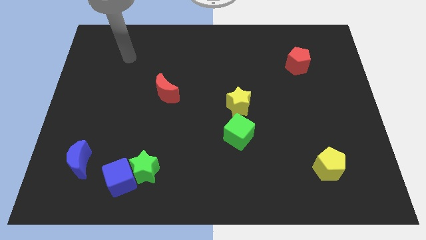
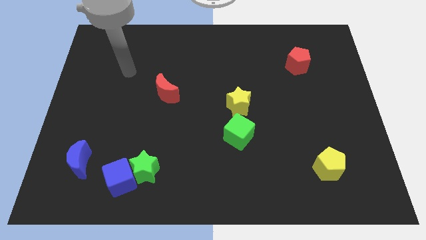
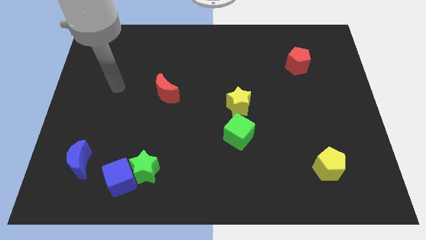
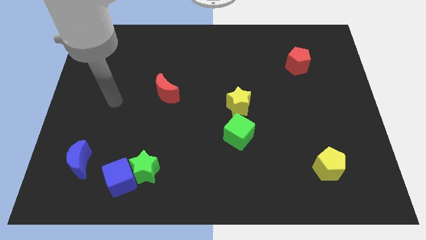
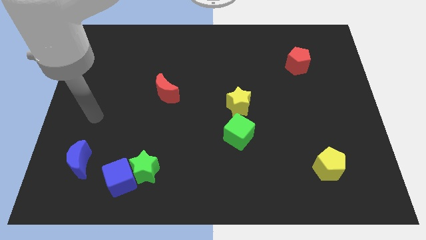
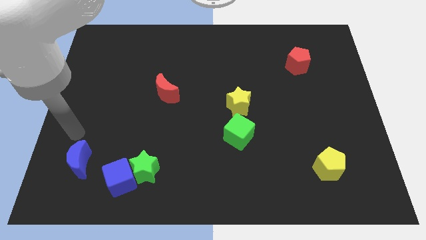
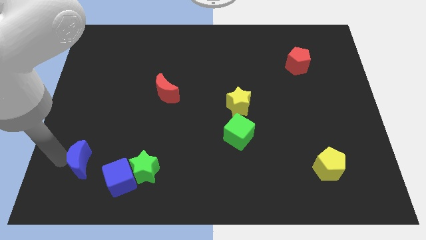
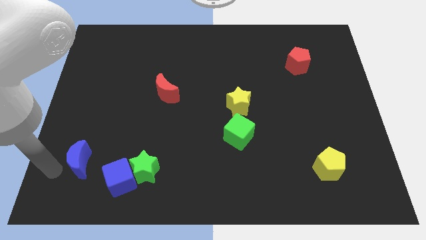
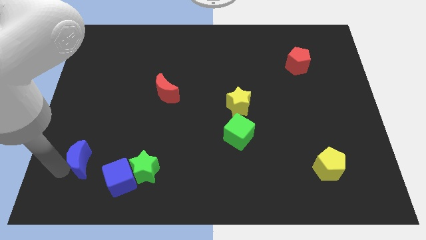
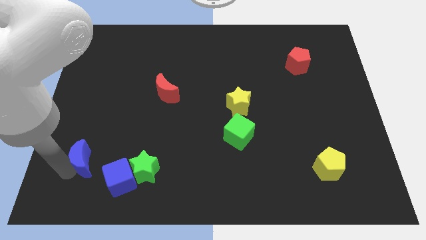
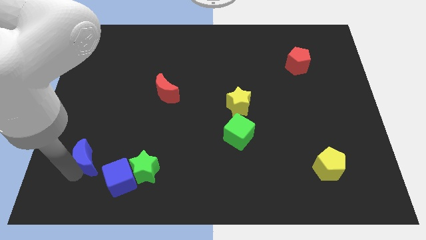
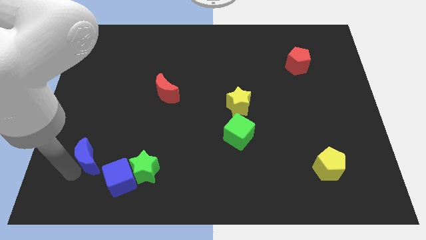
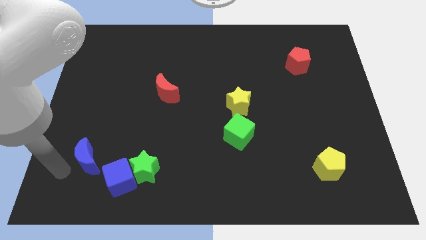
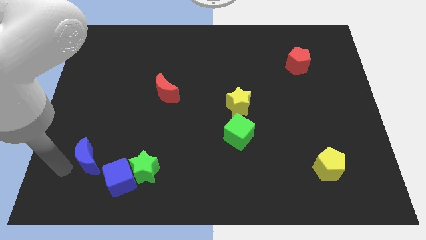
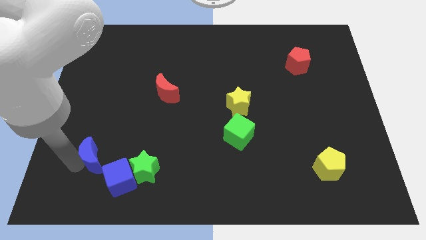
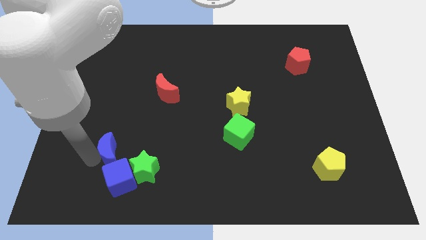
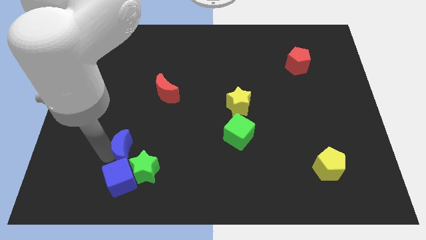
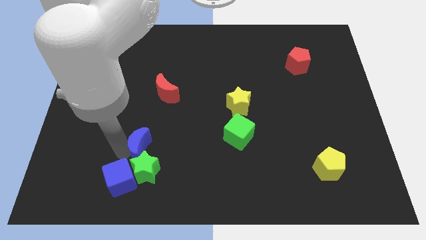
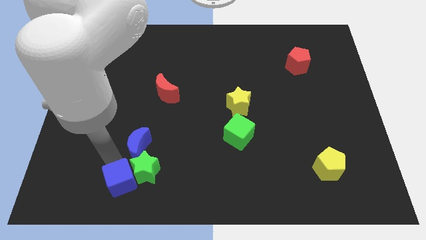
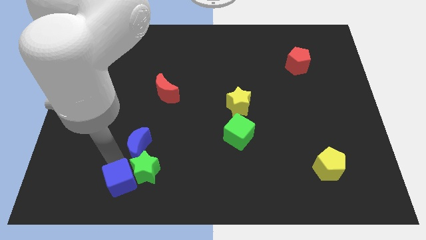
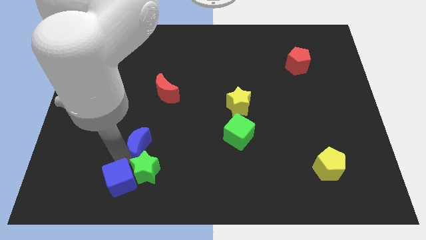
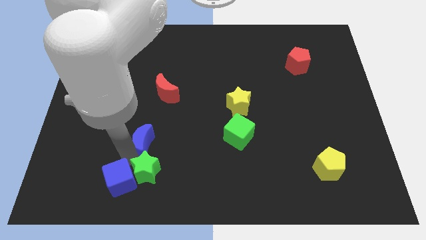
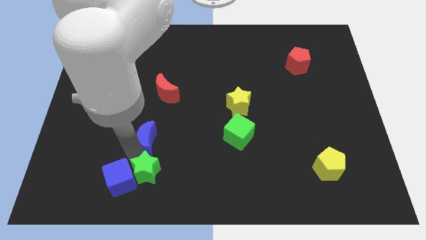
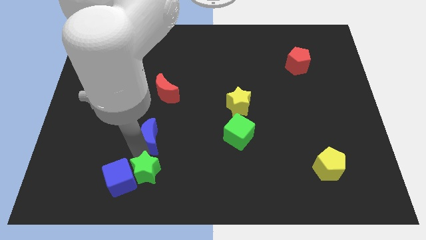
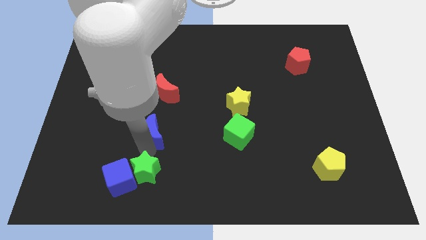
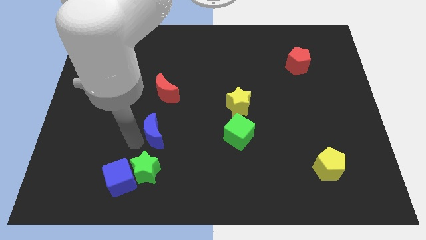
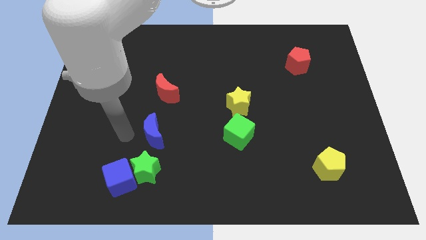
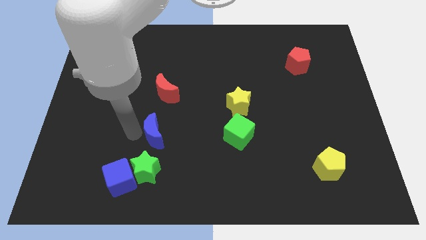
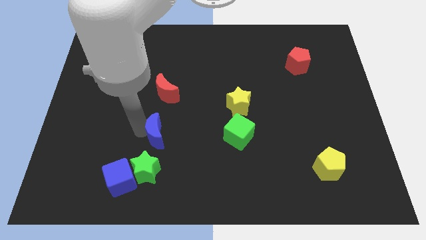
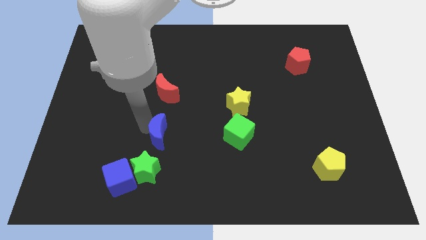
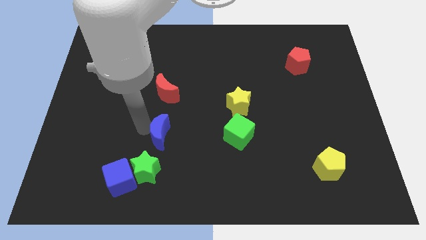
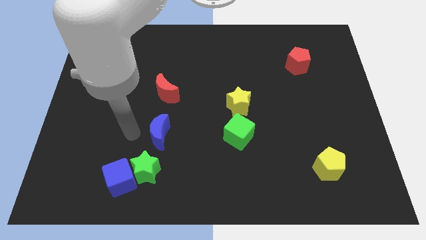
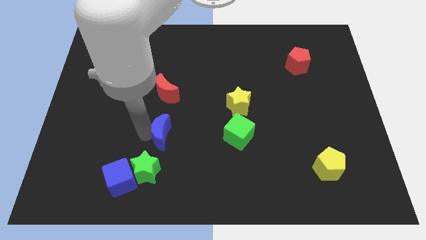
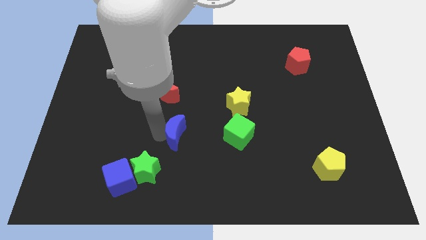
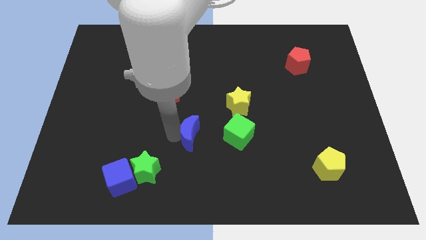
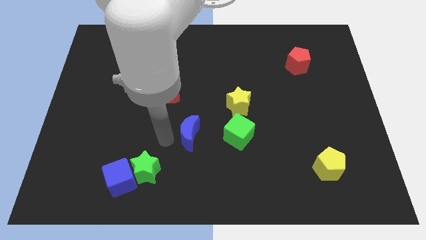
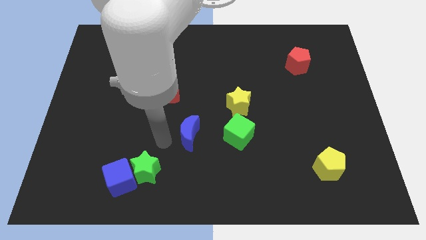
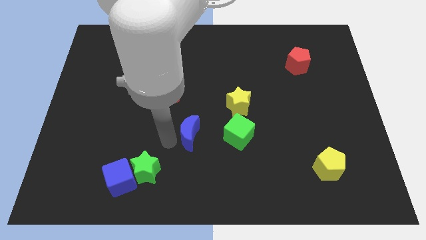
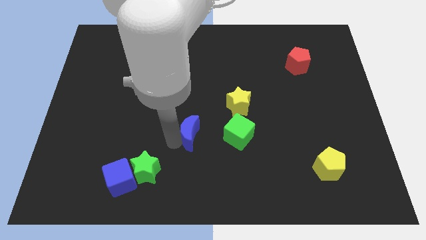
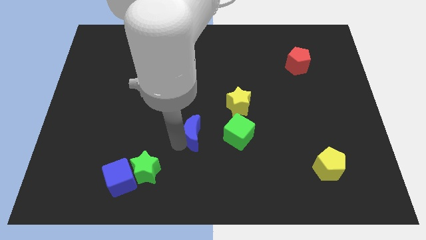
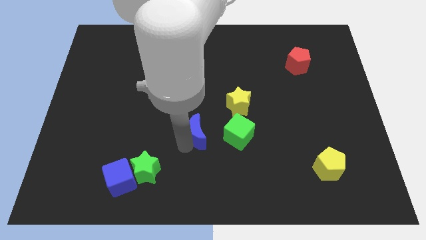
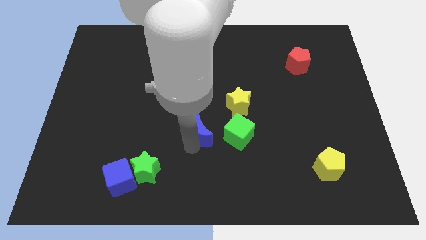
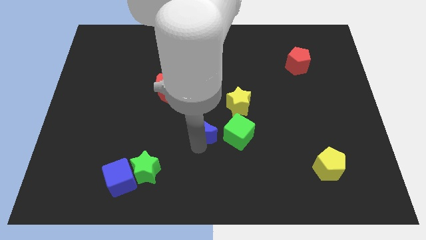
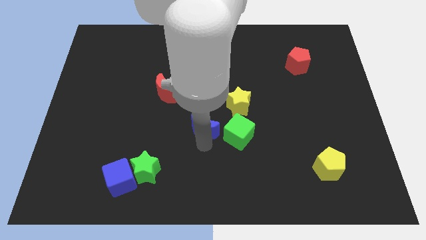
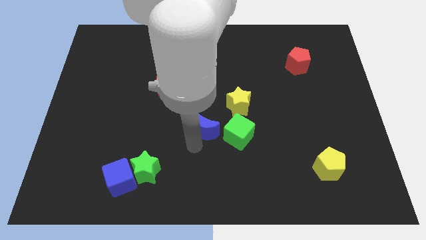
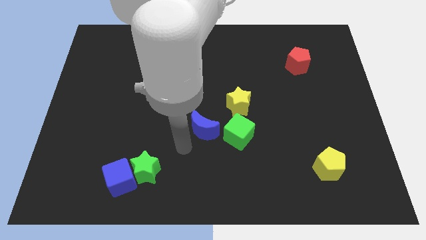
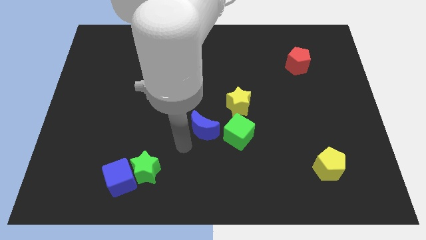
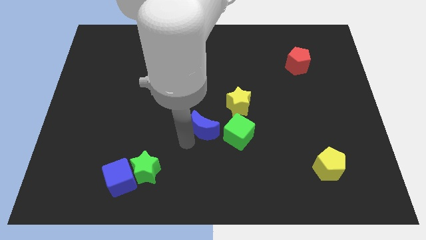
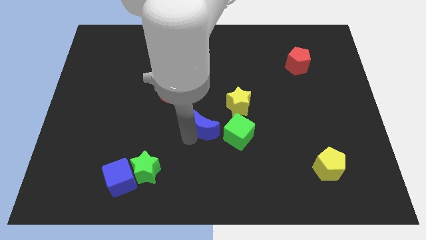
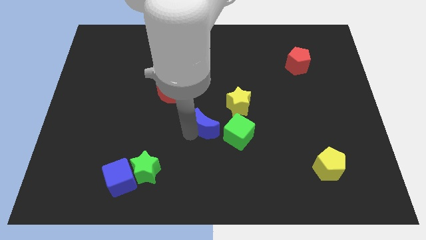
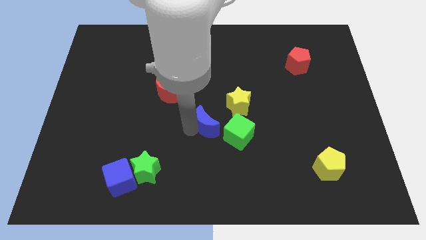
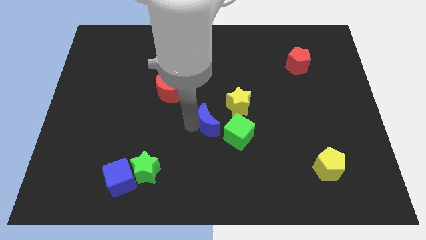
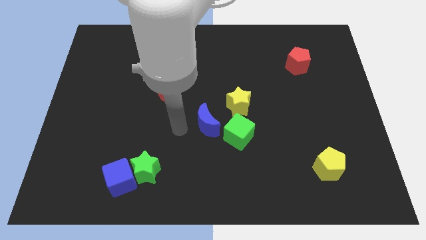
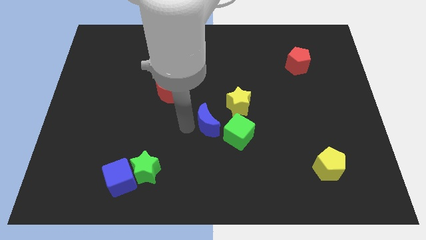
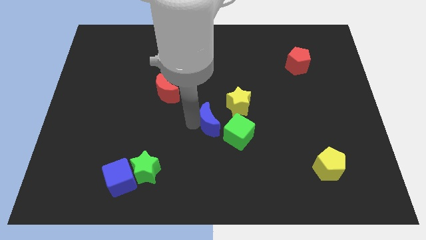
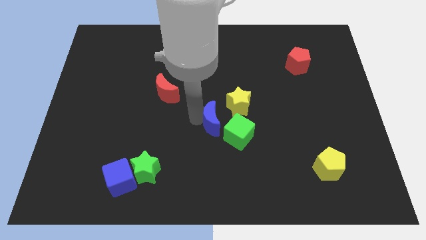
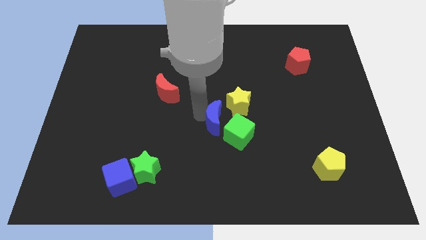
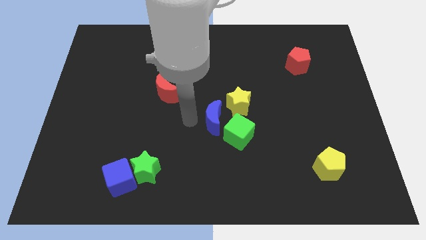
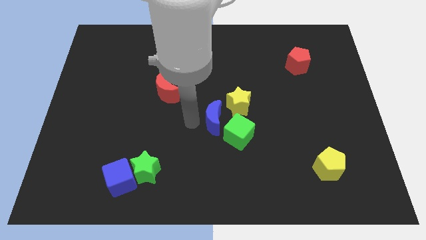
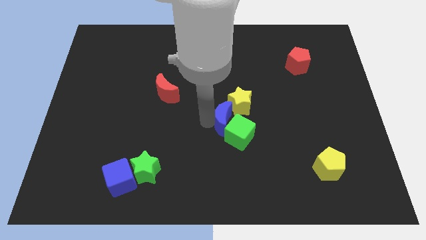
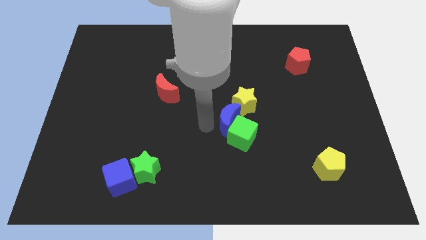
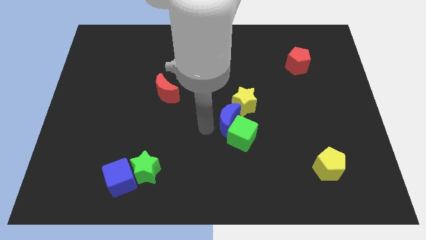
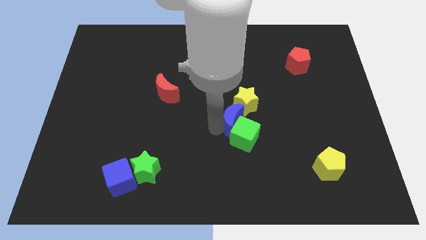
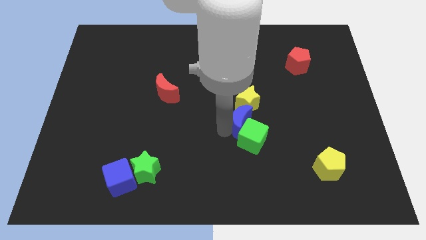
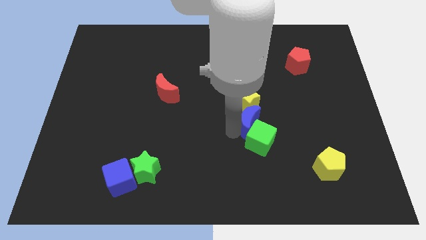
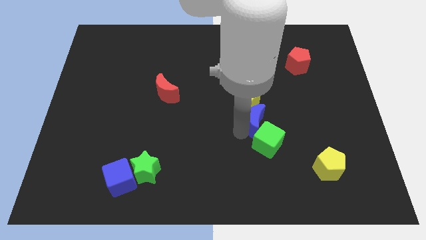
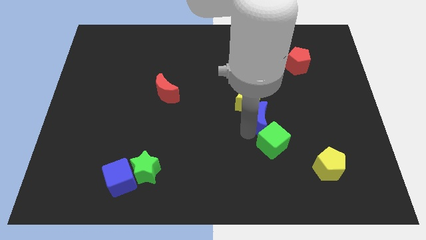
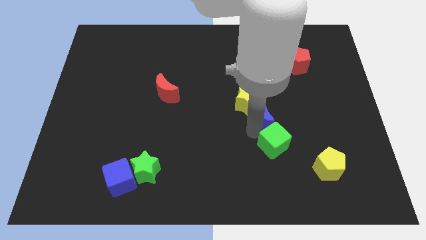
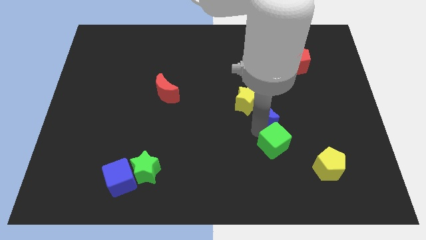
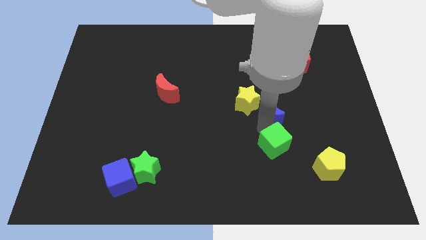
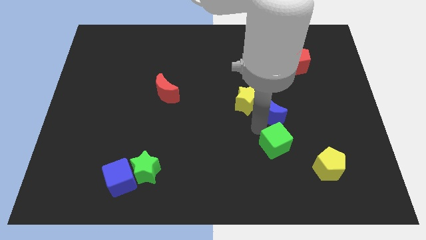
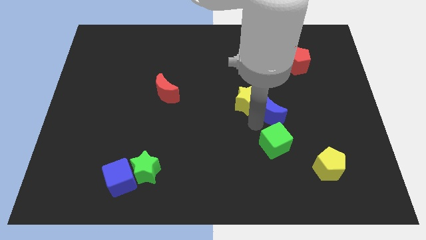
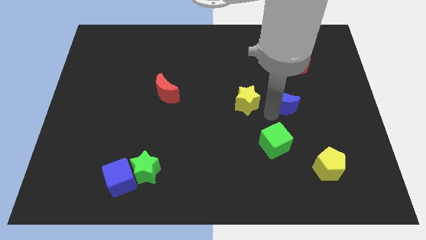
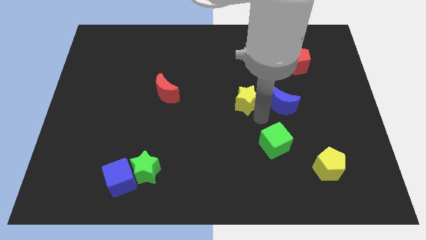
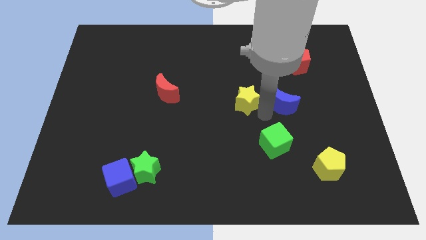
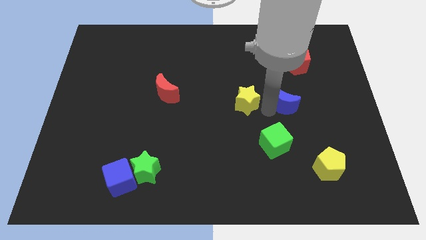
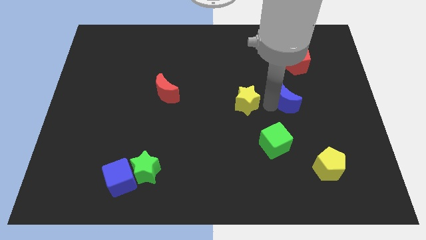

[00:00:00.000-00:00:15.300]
slide the blue moon below the red pentagon
